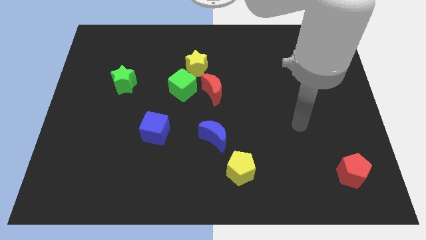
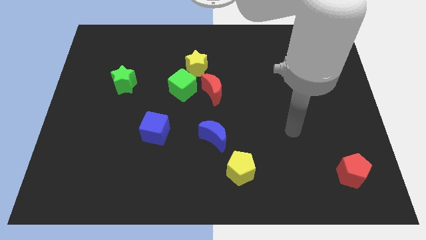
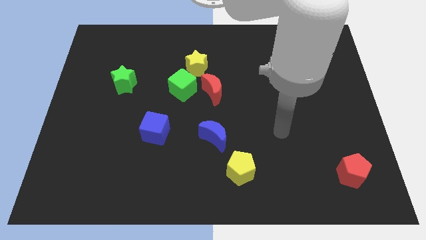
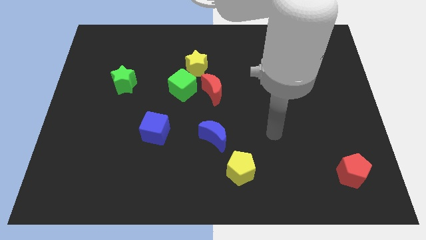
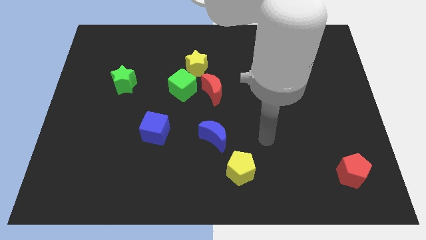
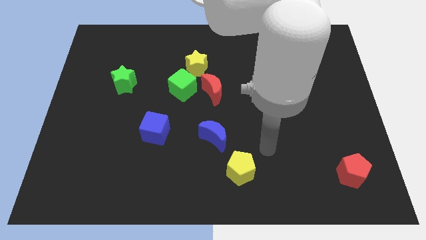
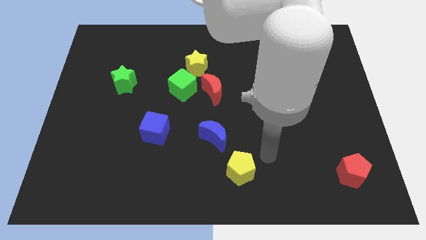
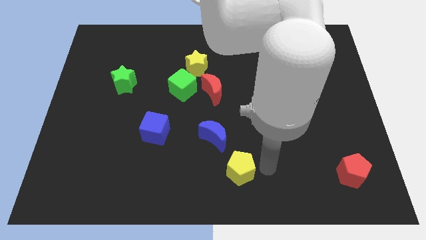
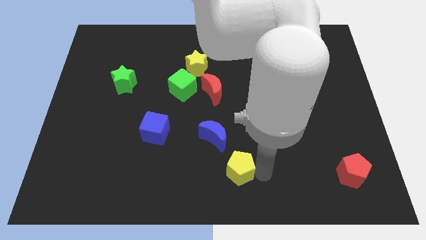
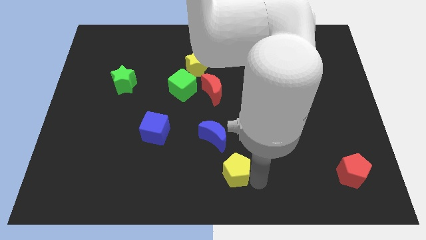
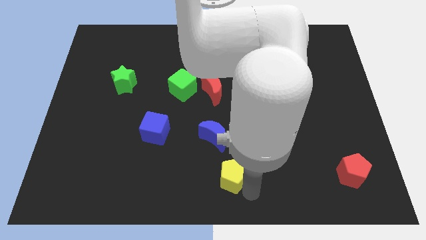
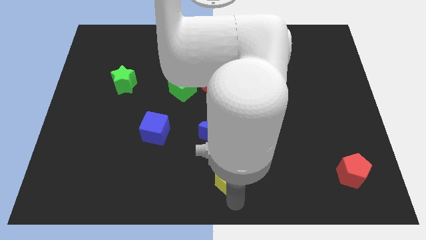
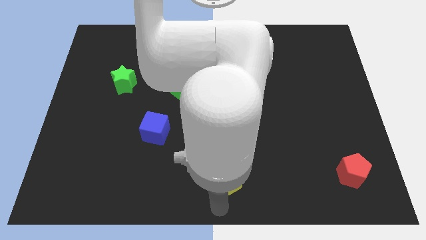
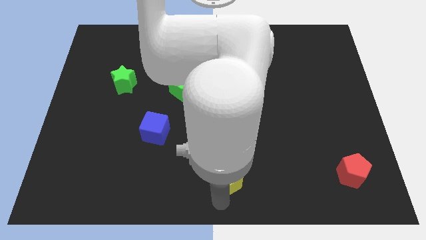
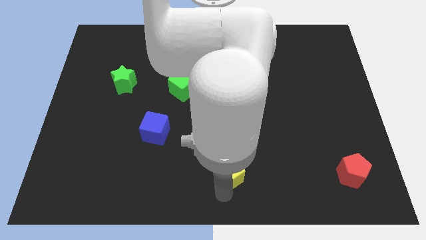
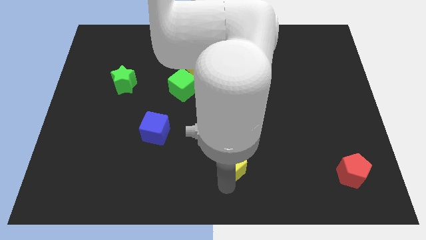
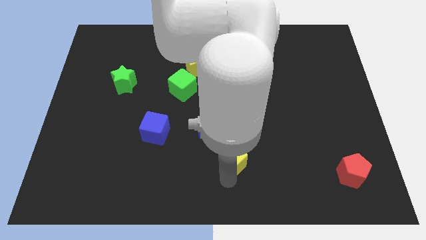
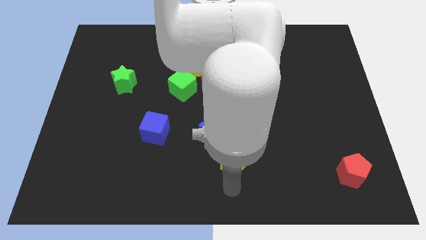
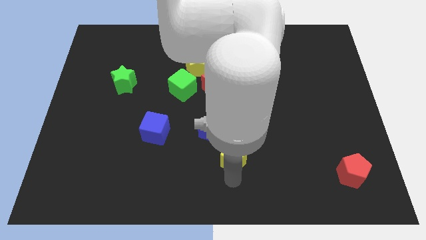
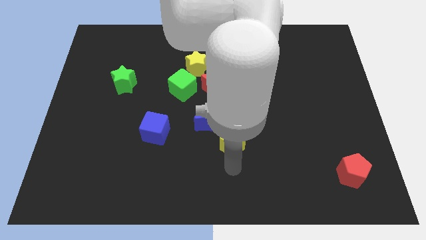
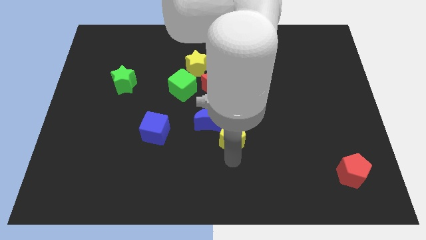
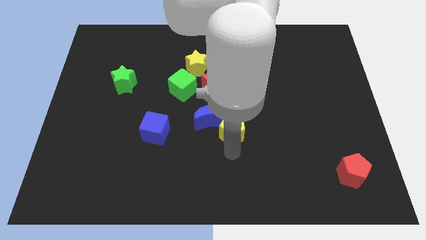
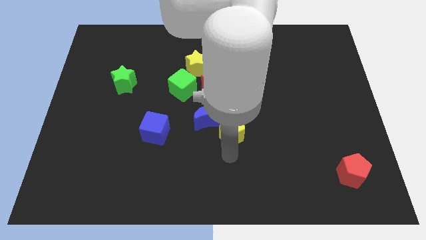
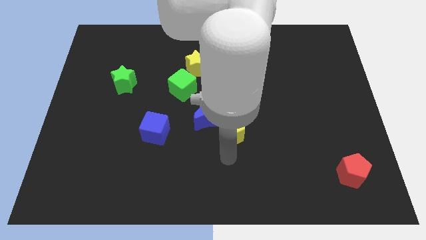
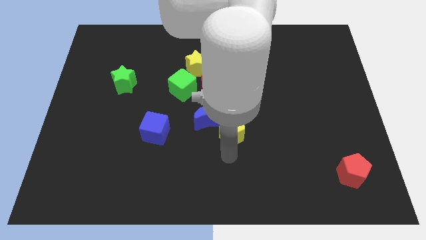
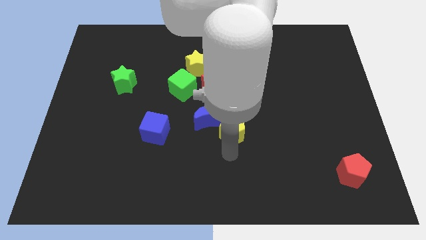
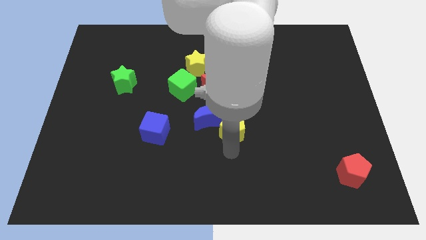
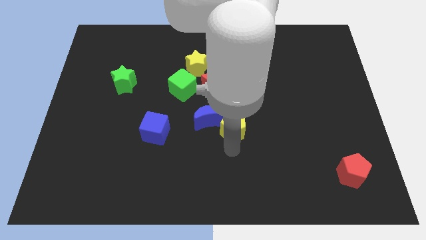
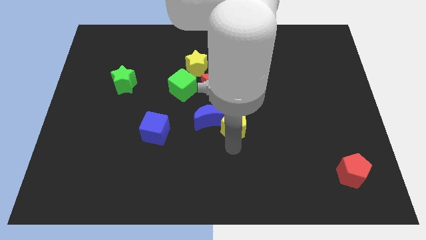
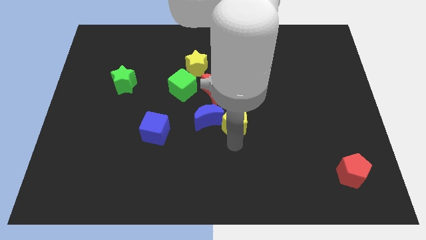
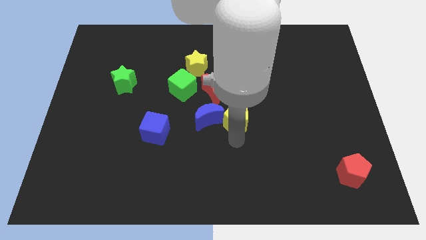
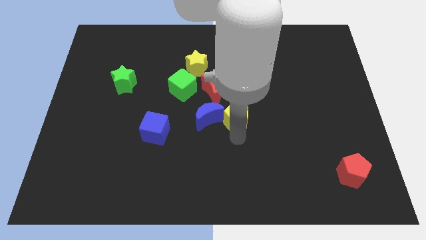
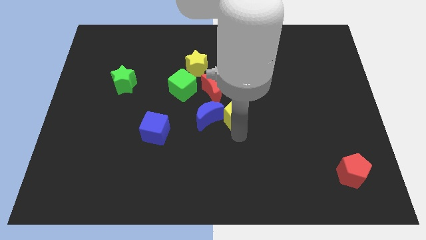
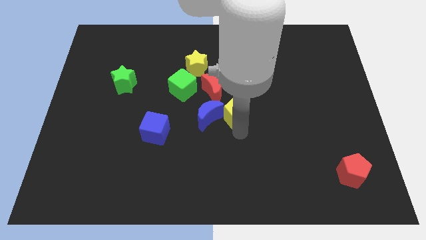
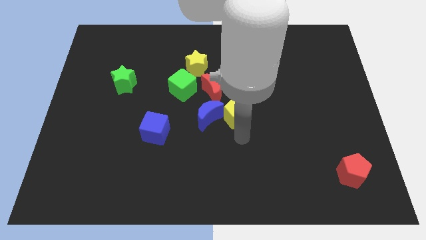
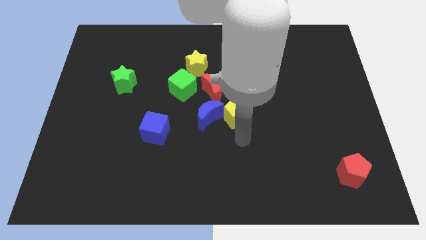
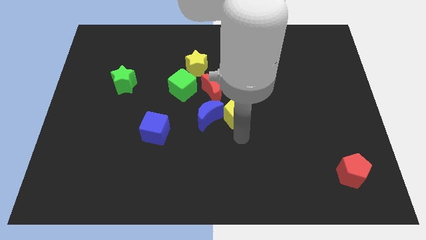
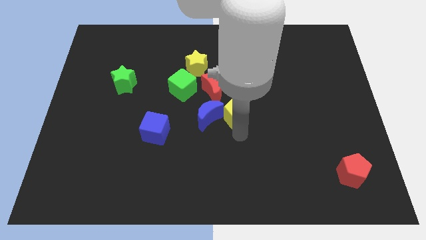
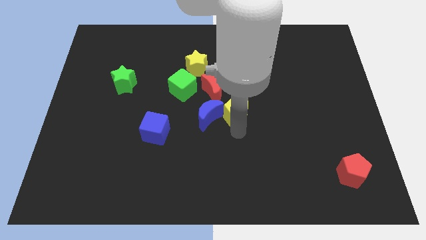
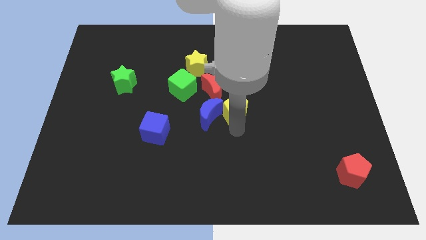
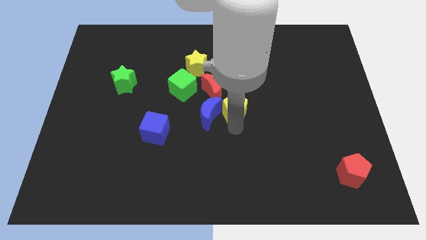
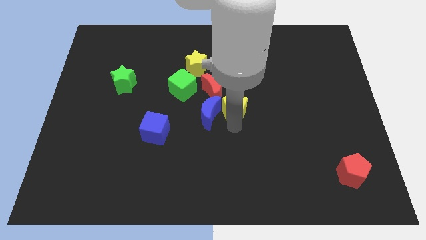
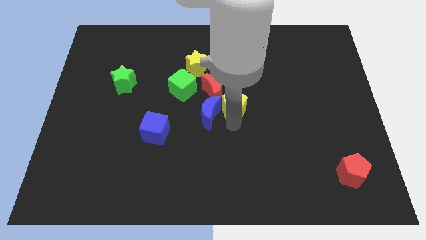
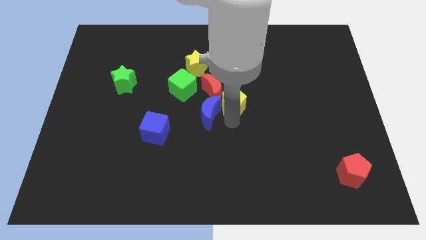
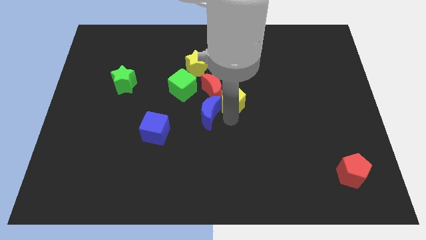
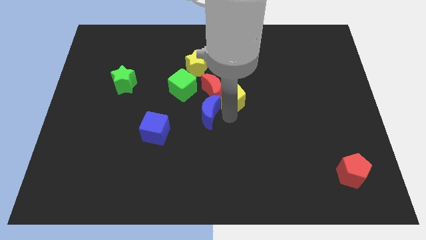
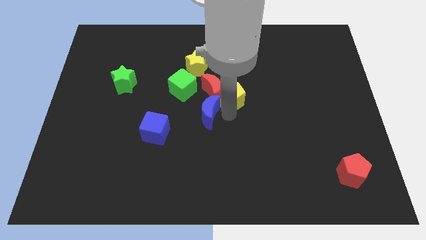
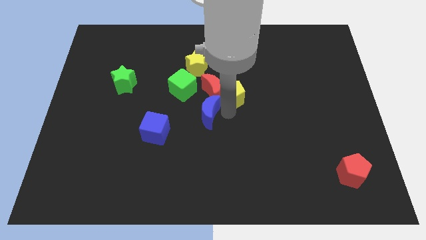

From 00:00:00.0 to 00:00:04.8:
move the yellow pentagon up

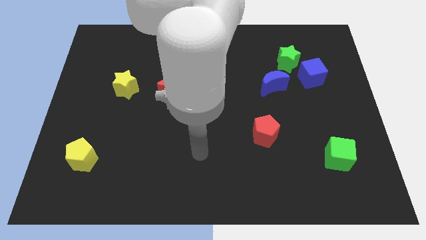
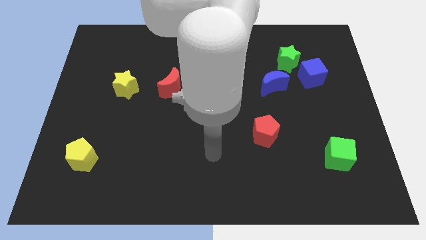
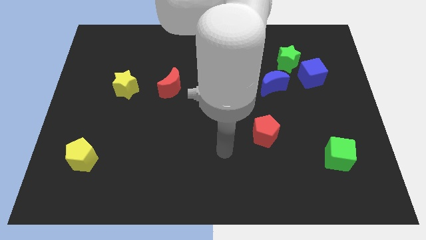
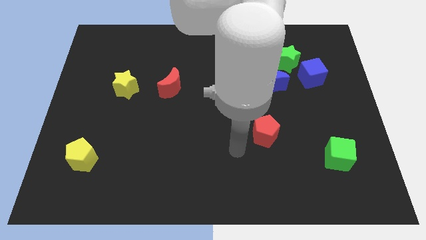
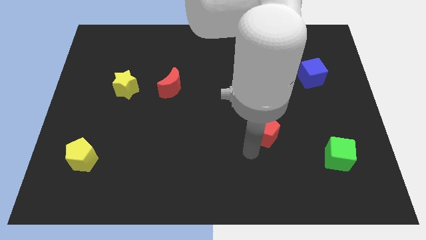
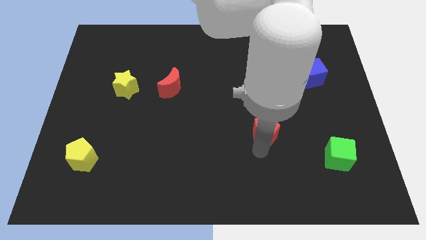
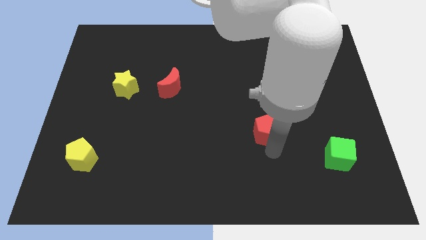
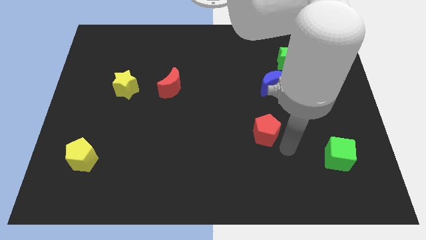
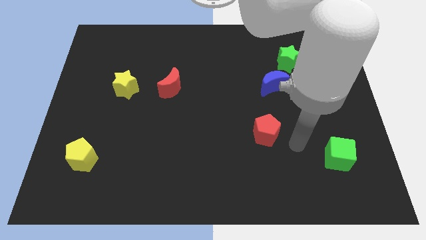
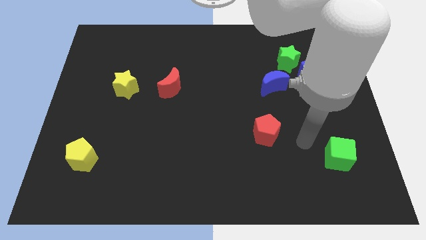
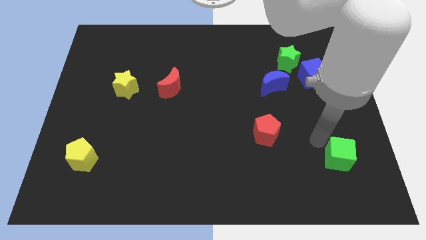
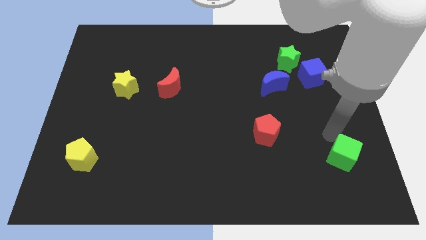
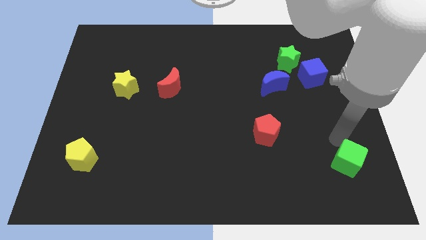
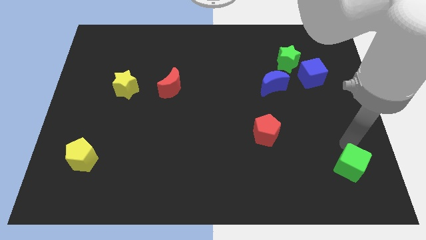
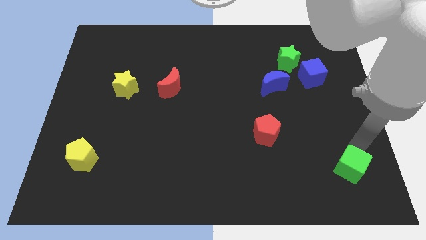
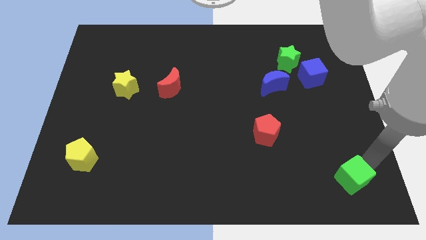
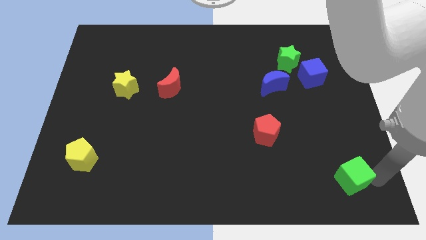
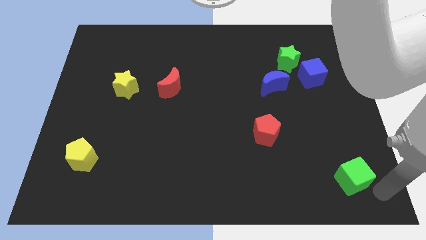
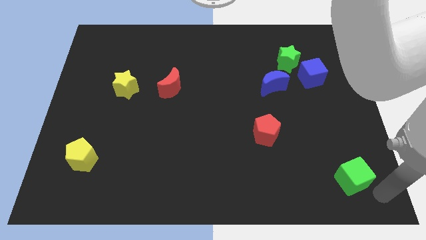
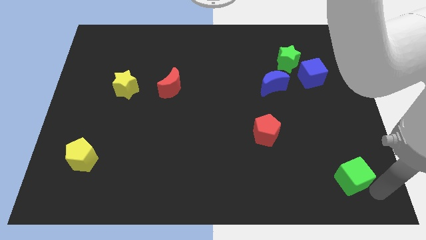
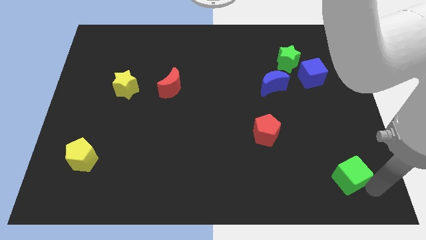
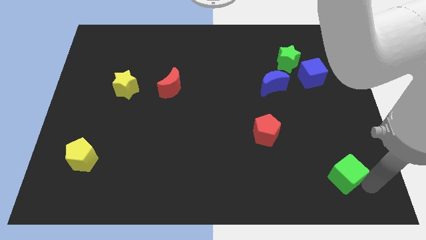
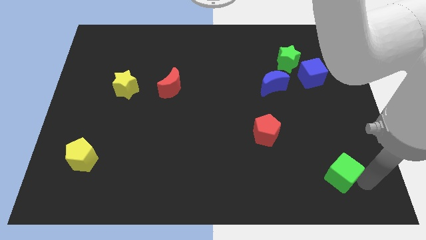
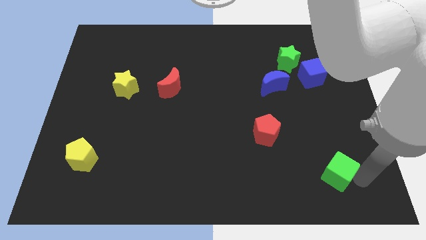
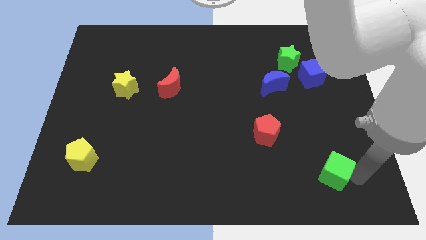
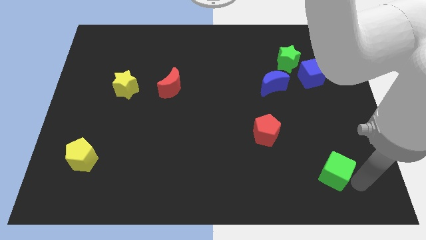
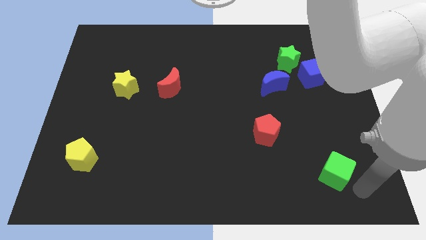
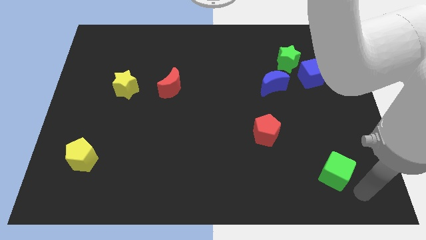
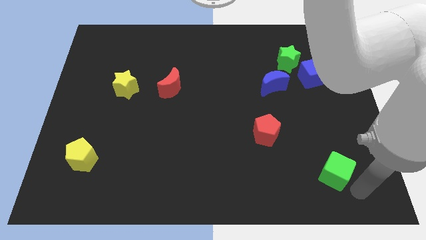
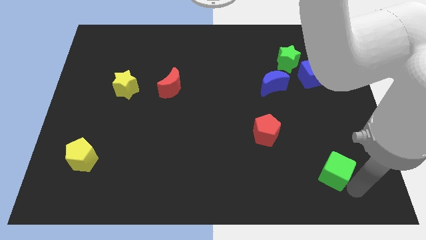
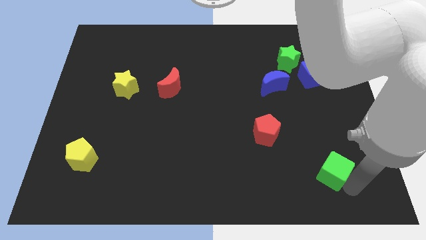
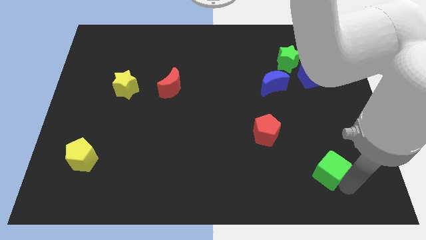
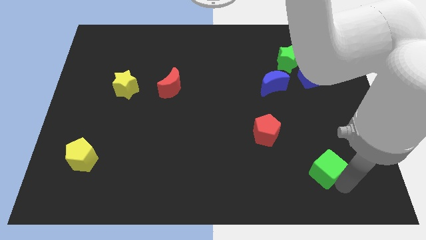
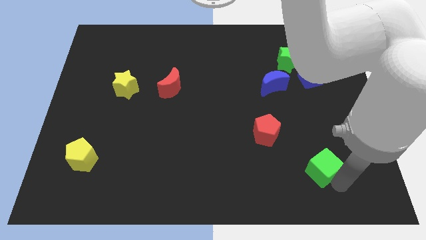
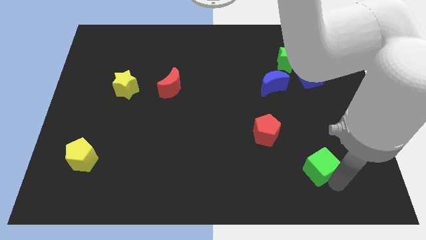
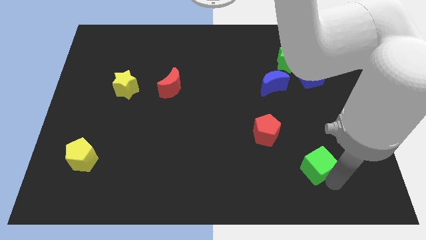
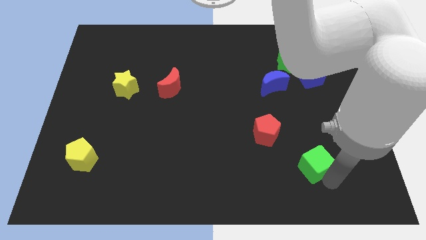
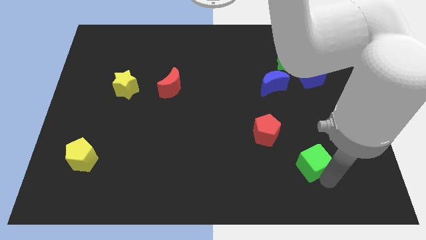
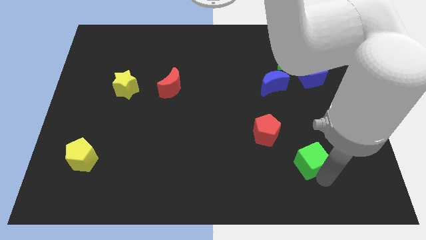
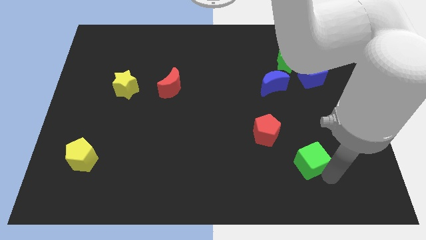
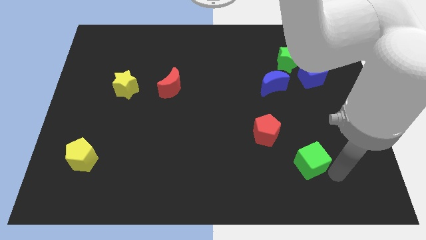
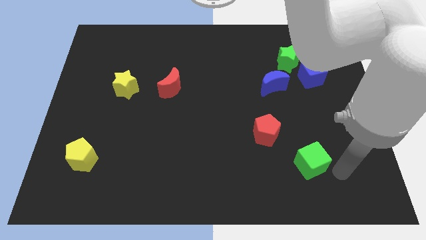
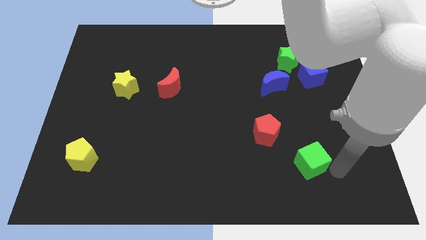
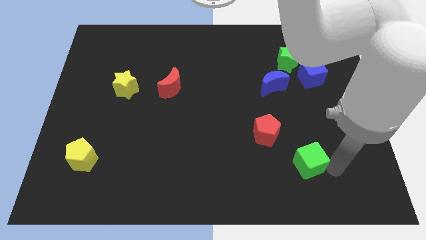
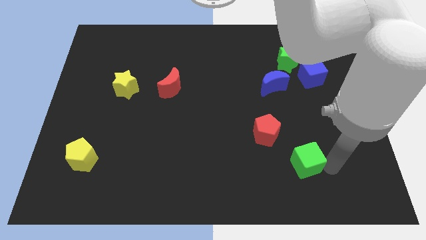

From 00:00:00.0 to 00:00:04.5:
slightly move the green cube to the left
